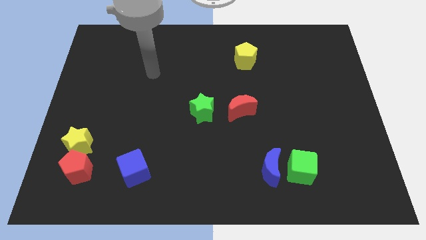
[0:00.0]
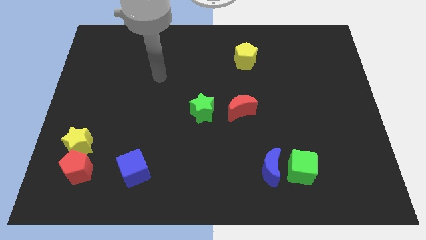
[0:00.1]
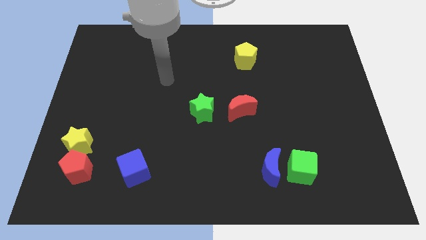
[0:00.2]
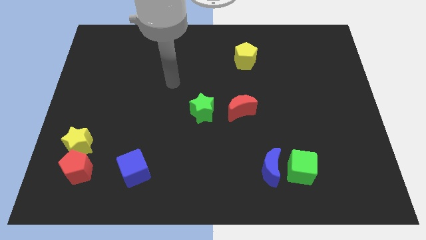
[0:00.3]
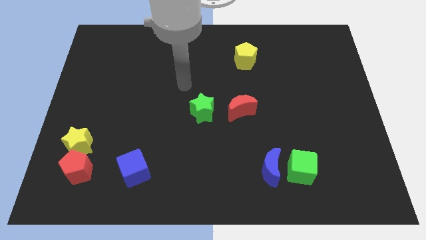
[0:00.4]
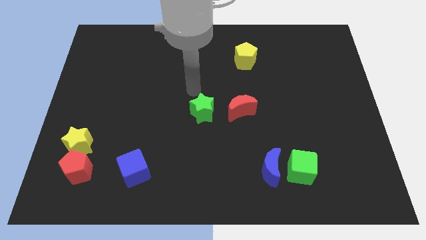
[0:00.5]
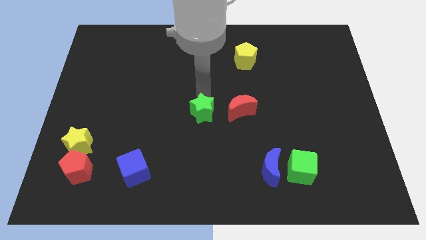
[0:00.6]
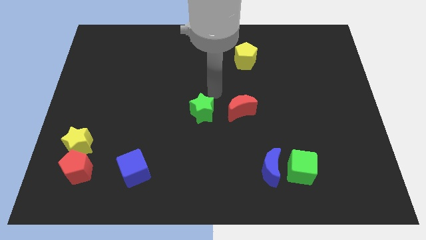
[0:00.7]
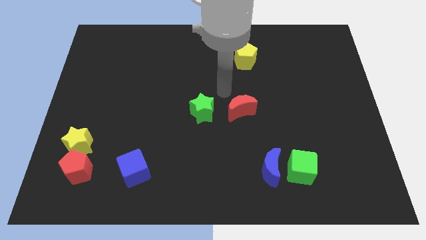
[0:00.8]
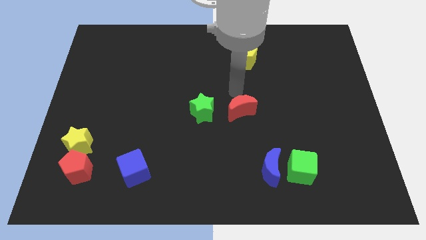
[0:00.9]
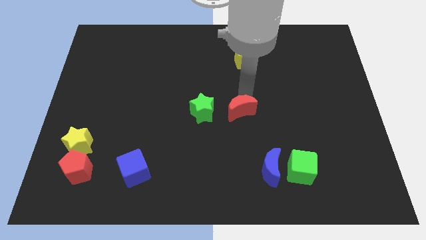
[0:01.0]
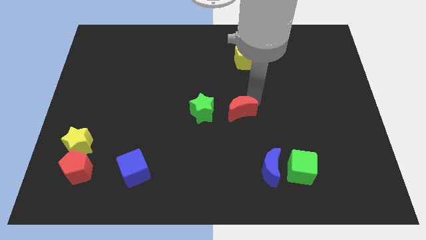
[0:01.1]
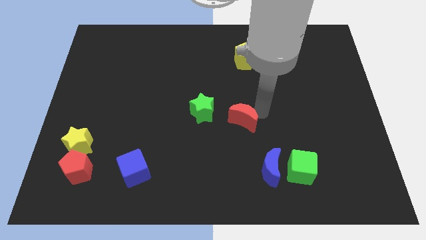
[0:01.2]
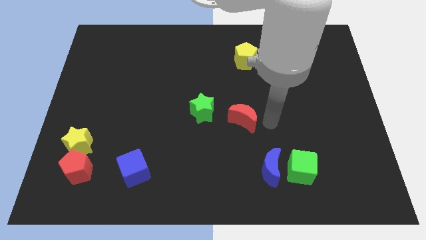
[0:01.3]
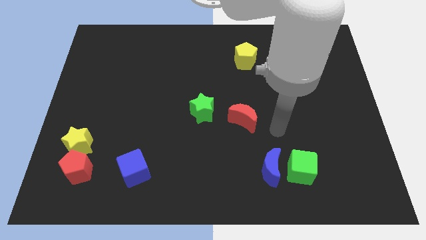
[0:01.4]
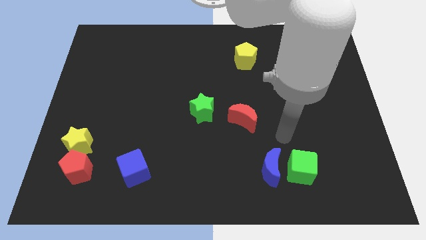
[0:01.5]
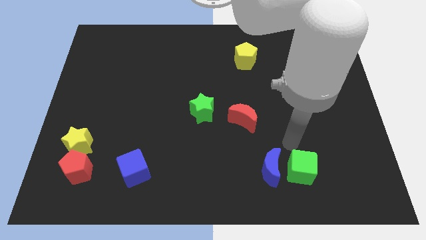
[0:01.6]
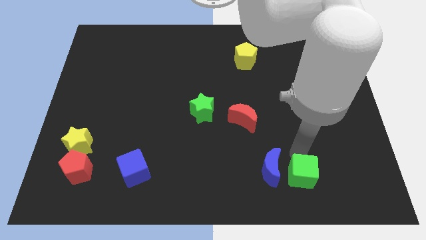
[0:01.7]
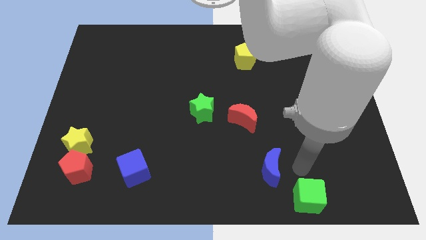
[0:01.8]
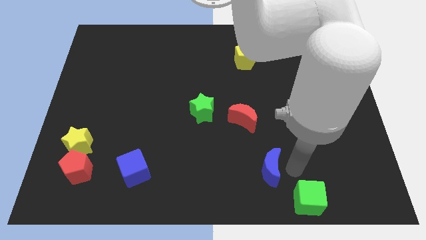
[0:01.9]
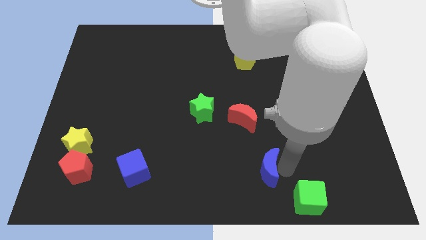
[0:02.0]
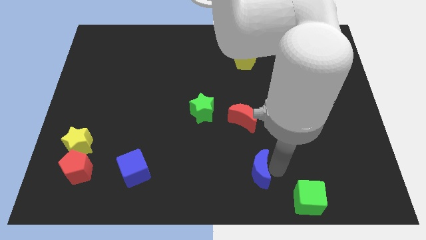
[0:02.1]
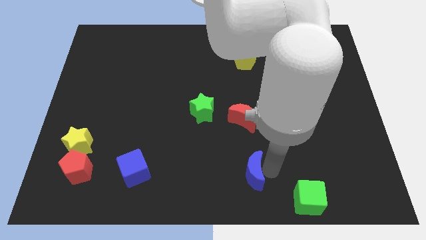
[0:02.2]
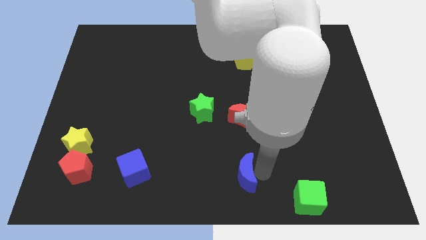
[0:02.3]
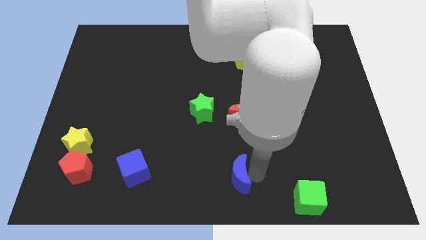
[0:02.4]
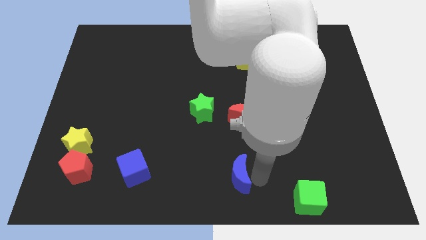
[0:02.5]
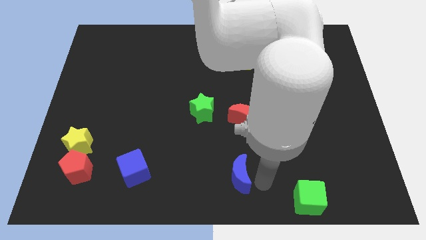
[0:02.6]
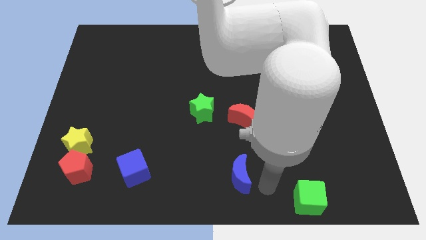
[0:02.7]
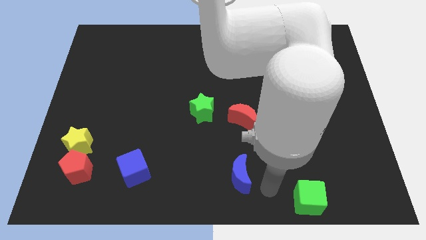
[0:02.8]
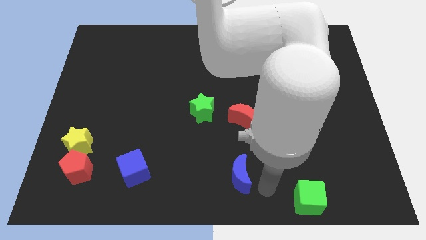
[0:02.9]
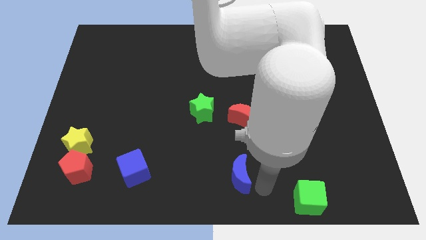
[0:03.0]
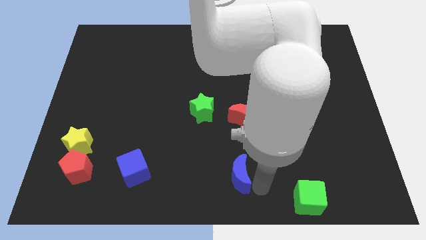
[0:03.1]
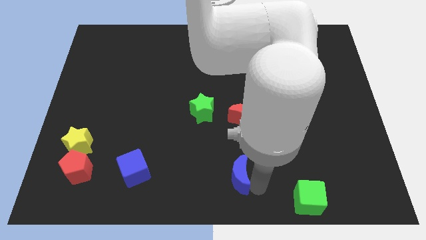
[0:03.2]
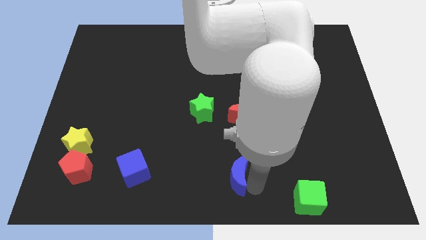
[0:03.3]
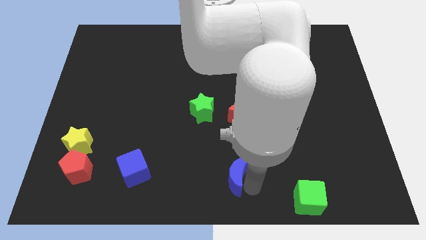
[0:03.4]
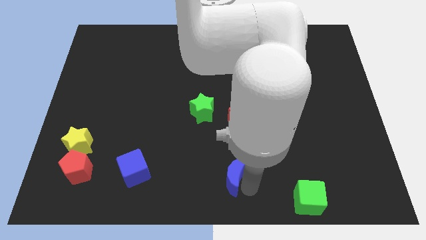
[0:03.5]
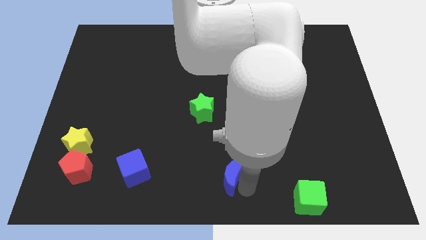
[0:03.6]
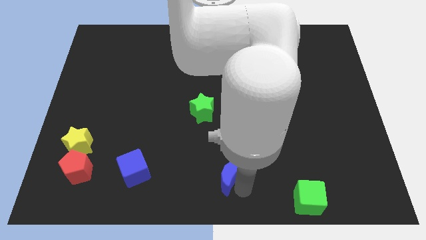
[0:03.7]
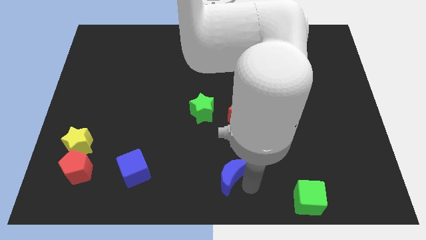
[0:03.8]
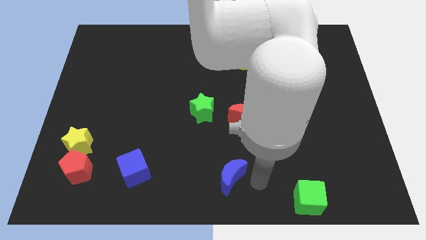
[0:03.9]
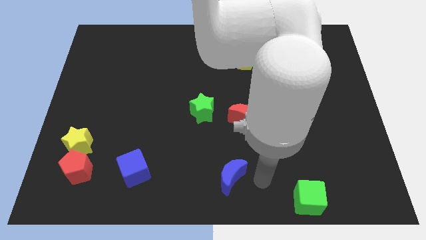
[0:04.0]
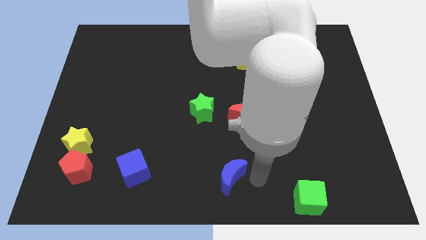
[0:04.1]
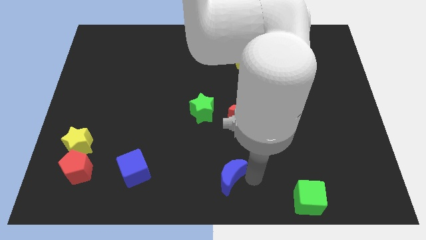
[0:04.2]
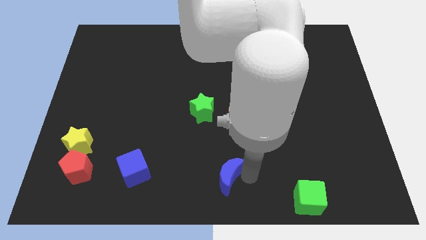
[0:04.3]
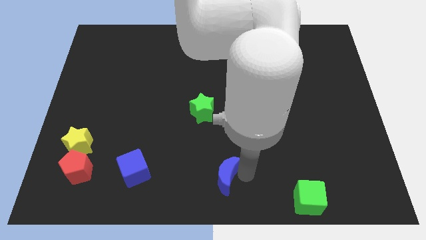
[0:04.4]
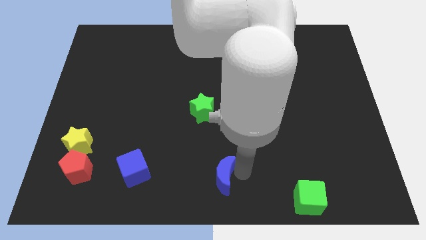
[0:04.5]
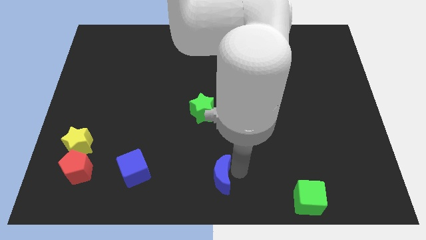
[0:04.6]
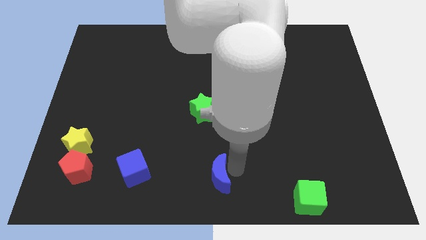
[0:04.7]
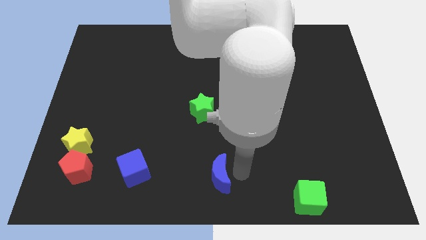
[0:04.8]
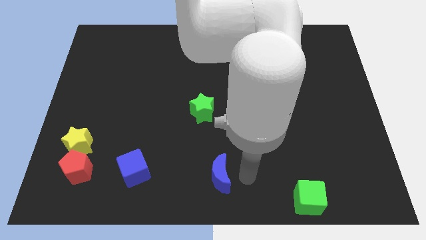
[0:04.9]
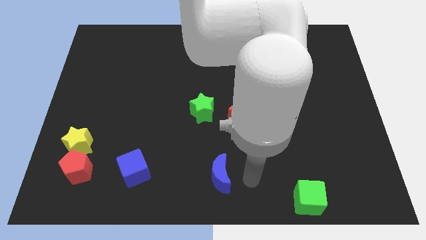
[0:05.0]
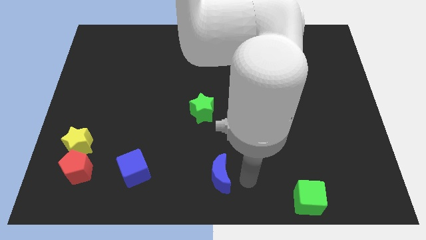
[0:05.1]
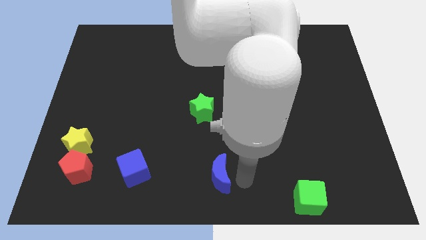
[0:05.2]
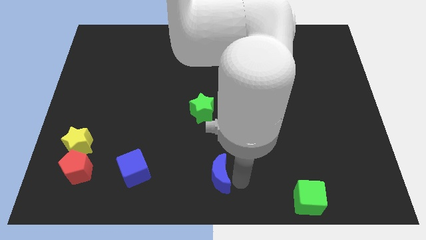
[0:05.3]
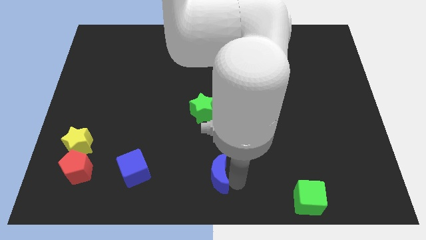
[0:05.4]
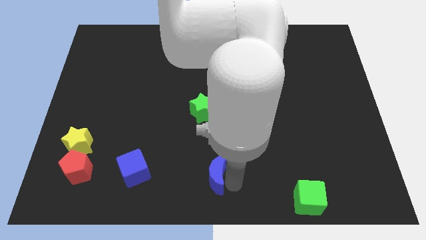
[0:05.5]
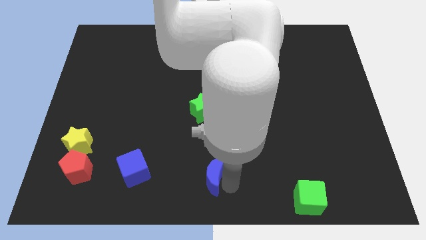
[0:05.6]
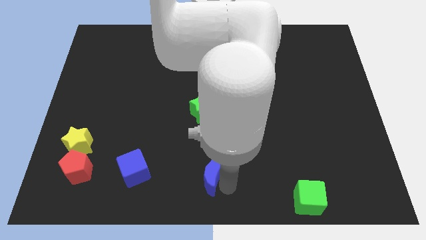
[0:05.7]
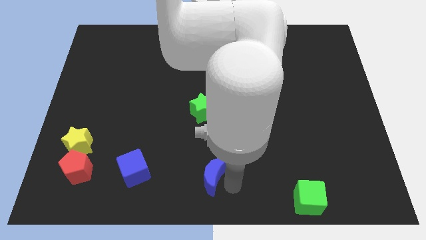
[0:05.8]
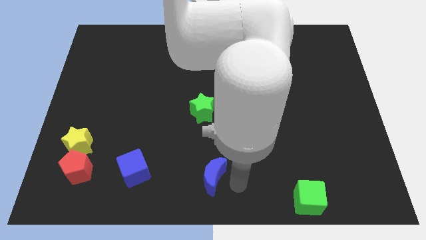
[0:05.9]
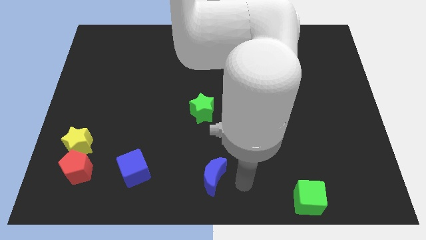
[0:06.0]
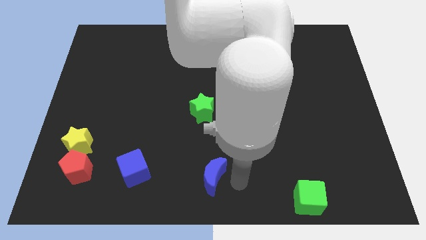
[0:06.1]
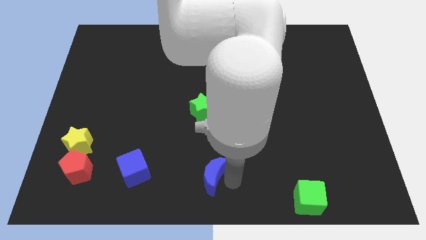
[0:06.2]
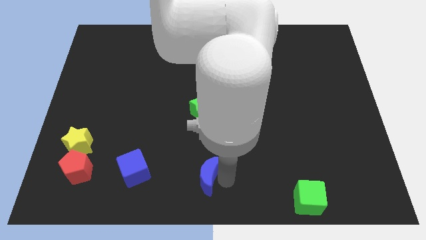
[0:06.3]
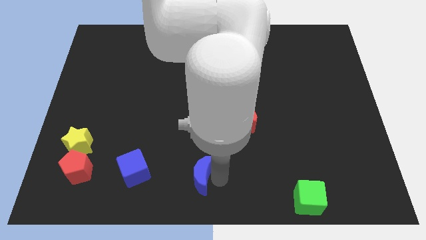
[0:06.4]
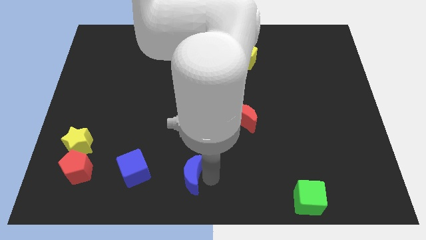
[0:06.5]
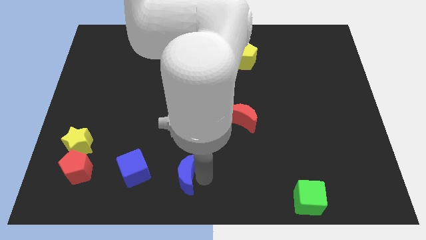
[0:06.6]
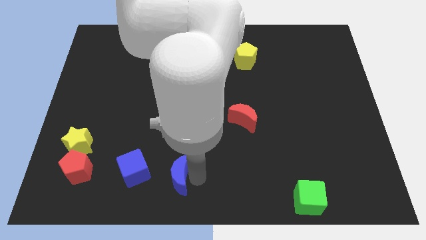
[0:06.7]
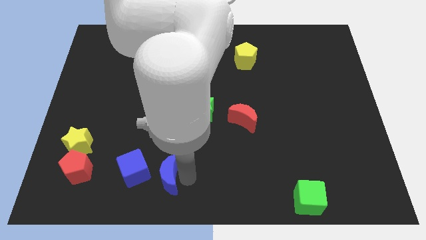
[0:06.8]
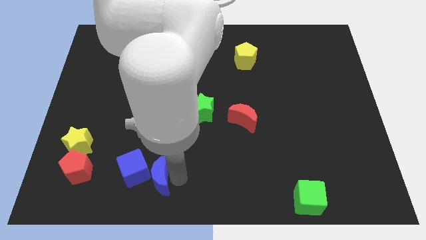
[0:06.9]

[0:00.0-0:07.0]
put the blue moon towards the blue cube
